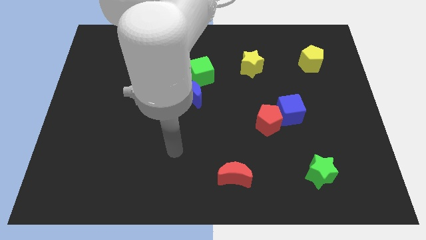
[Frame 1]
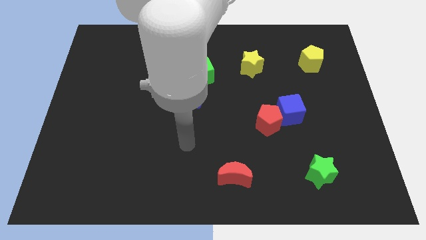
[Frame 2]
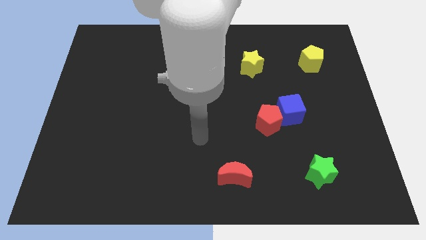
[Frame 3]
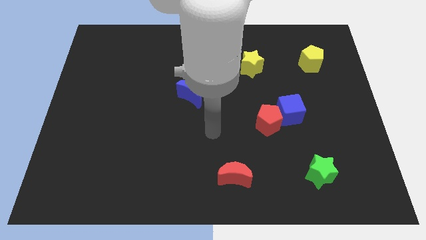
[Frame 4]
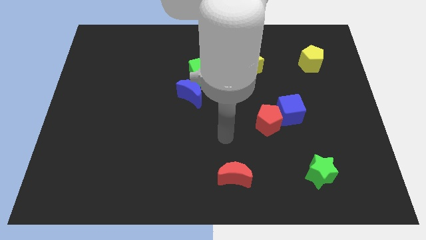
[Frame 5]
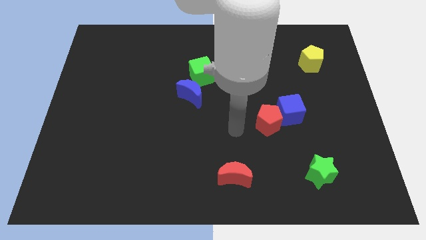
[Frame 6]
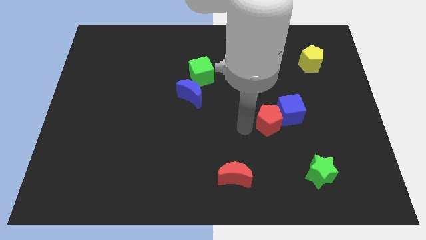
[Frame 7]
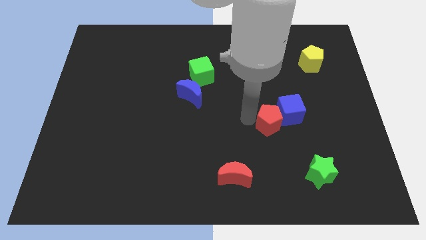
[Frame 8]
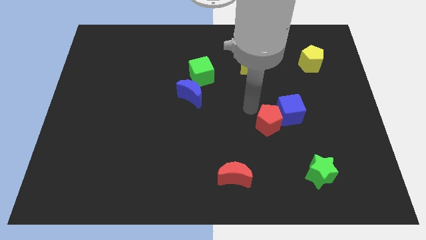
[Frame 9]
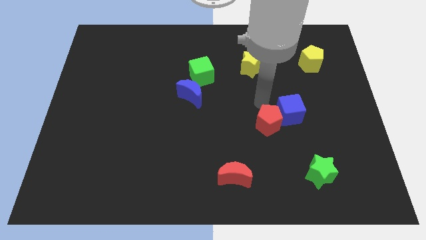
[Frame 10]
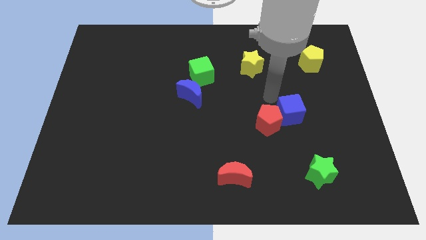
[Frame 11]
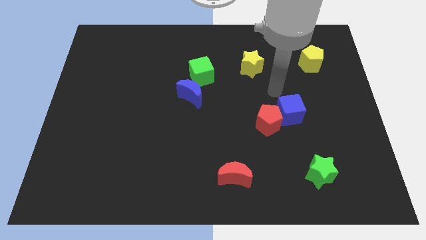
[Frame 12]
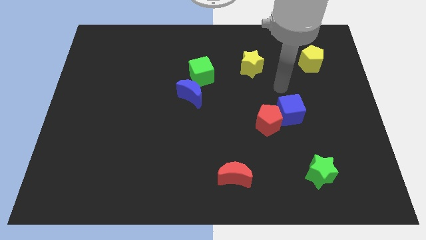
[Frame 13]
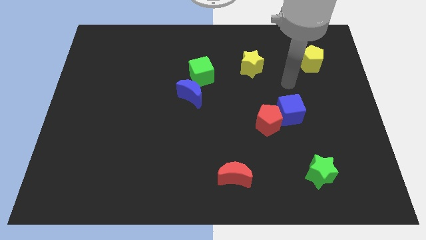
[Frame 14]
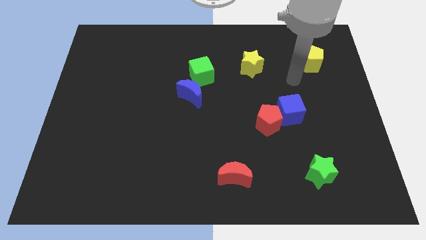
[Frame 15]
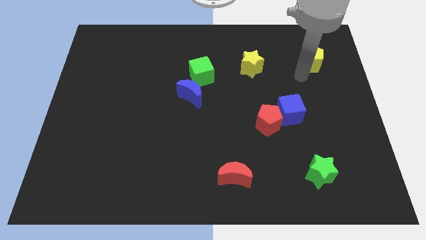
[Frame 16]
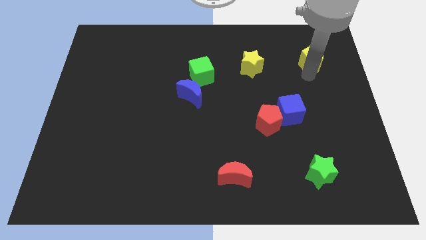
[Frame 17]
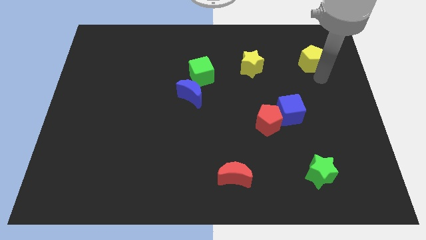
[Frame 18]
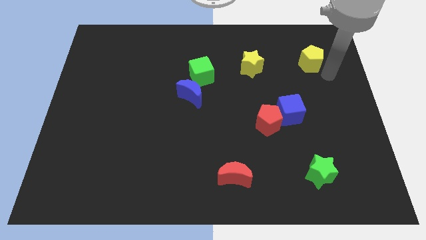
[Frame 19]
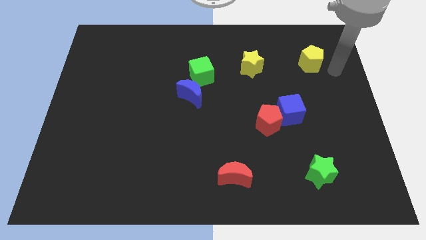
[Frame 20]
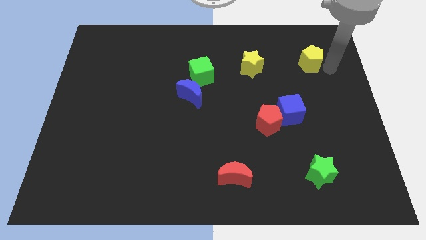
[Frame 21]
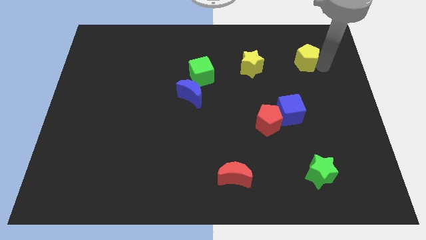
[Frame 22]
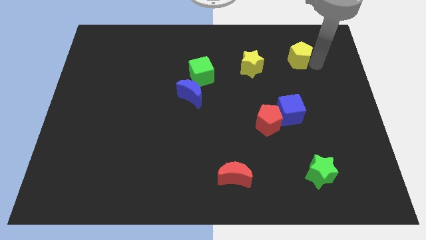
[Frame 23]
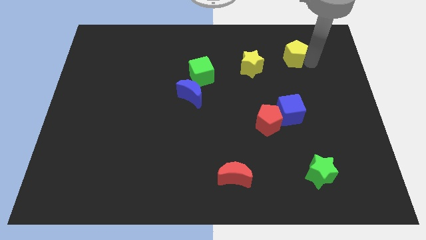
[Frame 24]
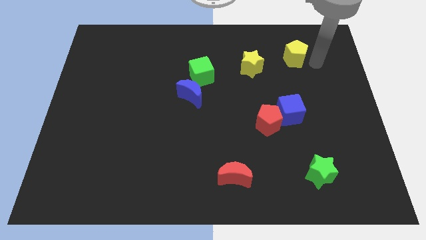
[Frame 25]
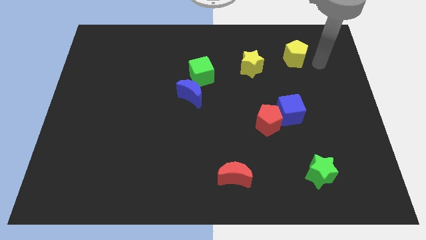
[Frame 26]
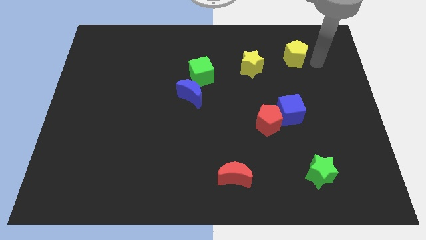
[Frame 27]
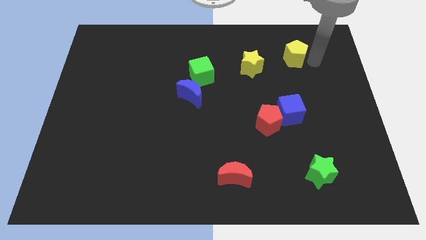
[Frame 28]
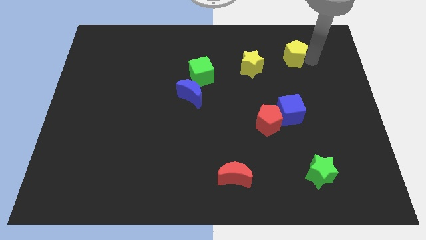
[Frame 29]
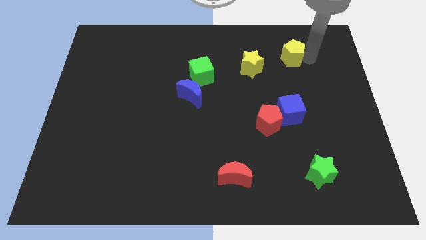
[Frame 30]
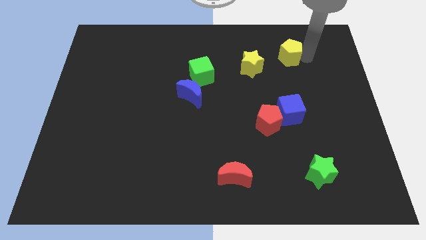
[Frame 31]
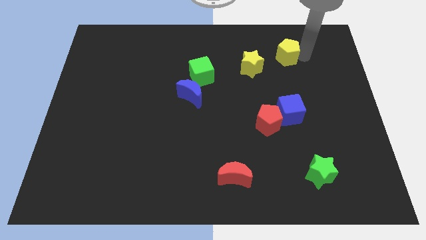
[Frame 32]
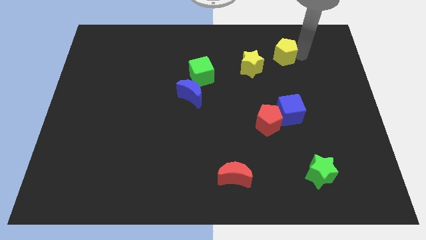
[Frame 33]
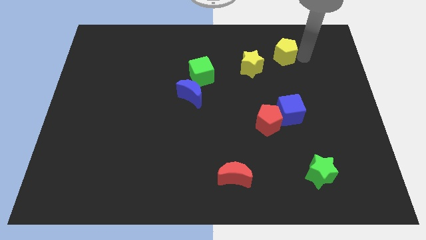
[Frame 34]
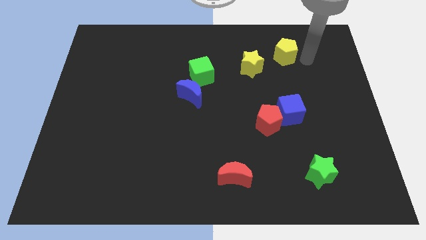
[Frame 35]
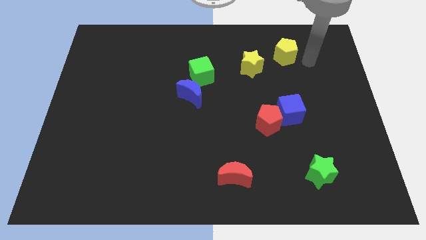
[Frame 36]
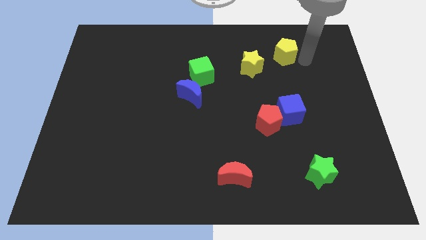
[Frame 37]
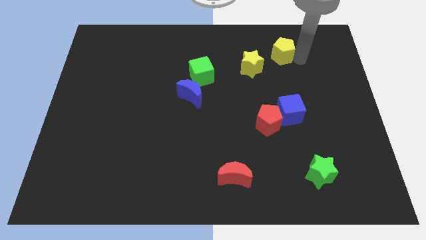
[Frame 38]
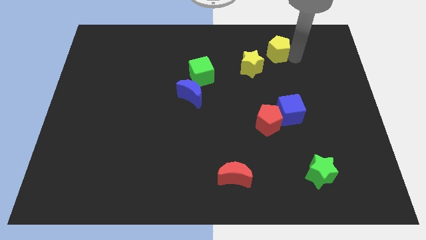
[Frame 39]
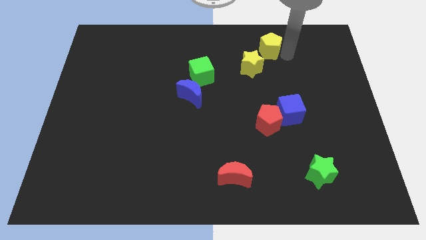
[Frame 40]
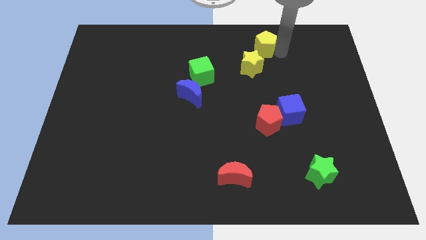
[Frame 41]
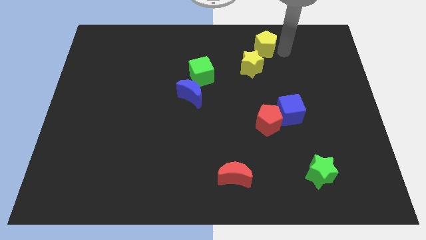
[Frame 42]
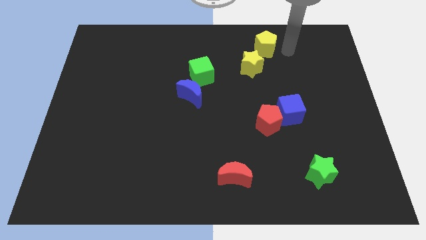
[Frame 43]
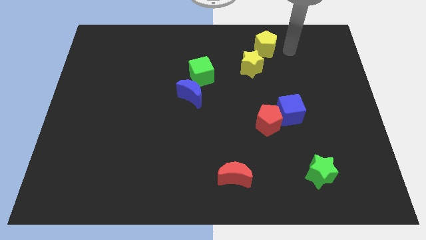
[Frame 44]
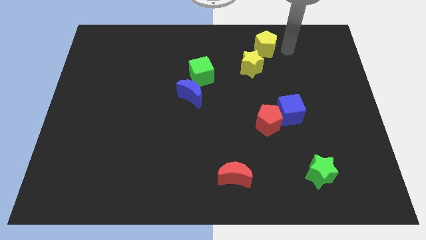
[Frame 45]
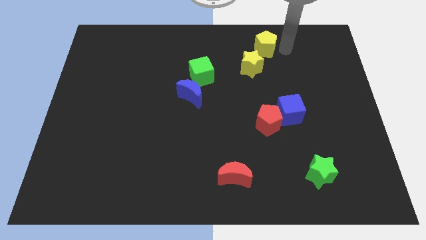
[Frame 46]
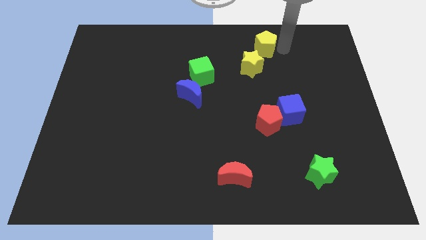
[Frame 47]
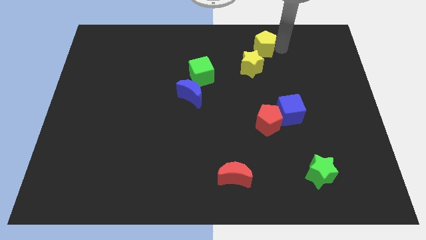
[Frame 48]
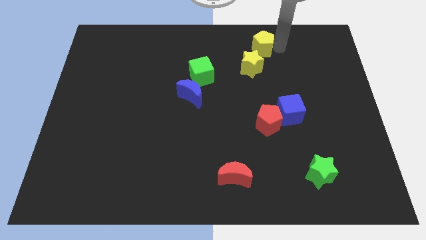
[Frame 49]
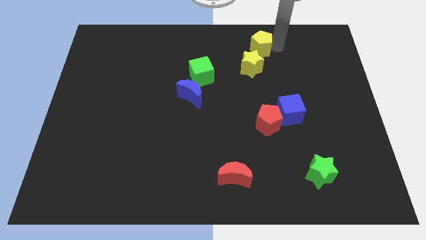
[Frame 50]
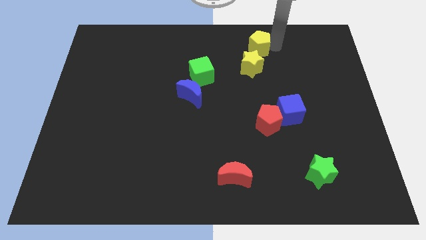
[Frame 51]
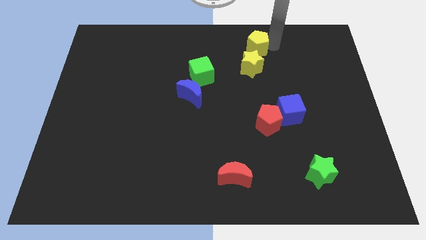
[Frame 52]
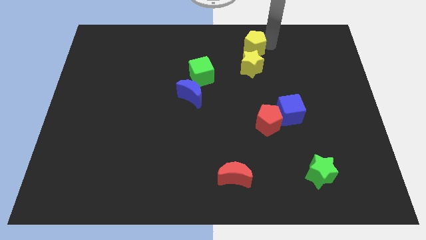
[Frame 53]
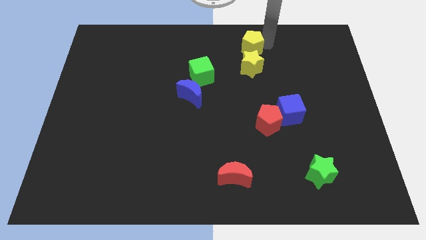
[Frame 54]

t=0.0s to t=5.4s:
push the yellow pentagon to the towards your base

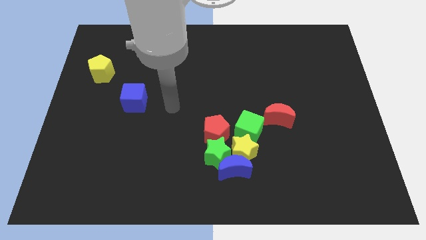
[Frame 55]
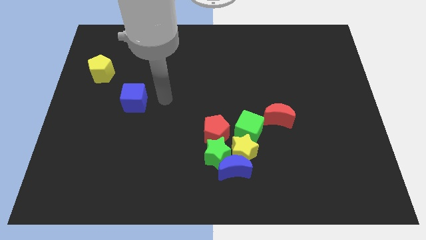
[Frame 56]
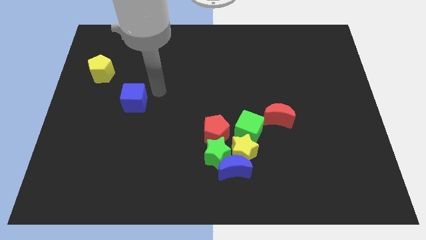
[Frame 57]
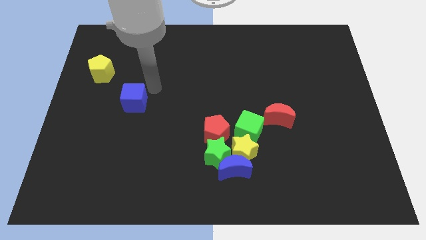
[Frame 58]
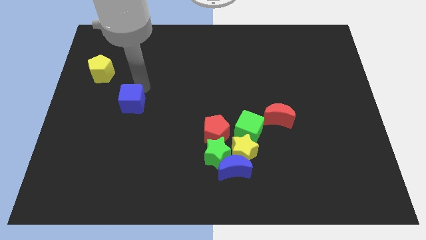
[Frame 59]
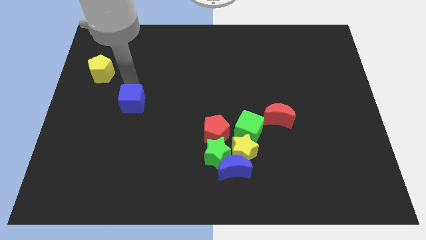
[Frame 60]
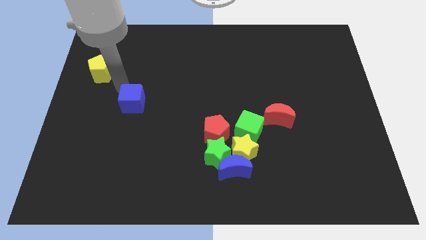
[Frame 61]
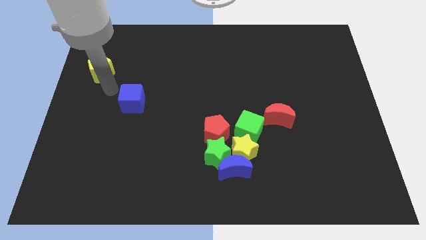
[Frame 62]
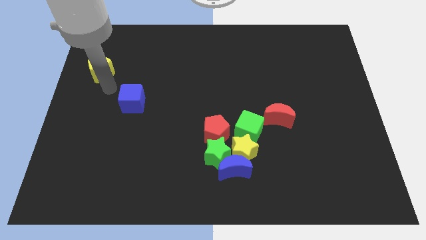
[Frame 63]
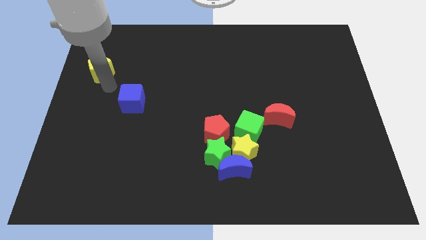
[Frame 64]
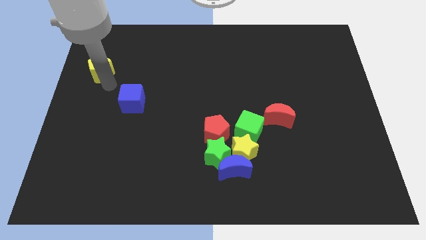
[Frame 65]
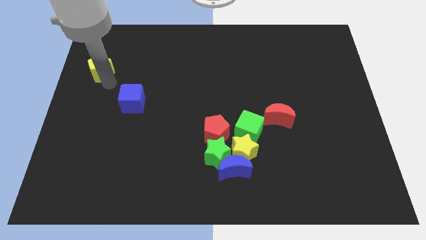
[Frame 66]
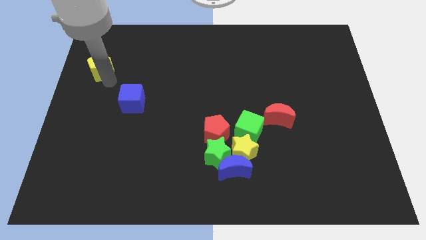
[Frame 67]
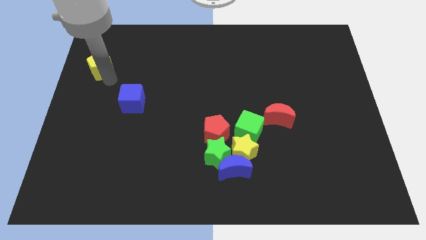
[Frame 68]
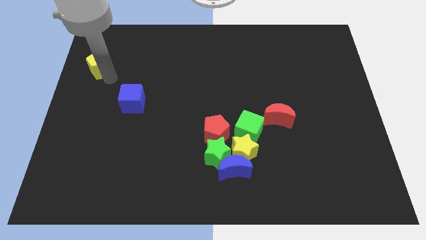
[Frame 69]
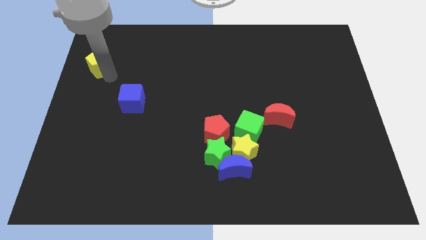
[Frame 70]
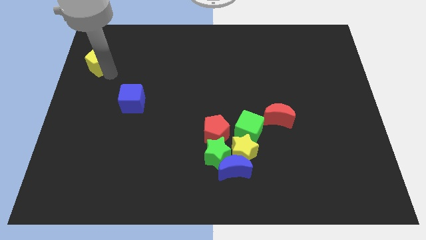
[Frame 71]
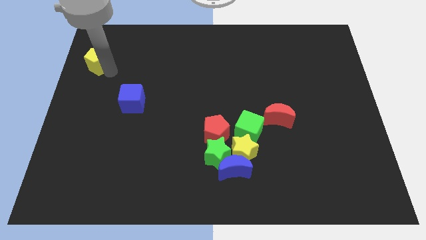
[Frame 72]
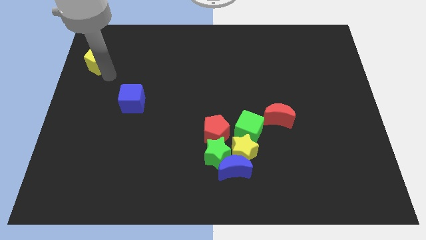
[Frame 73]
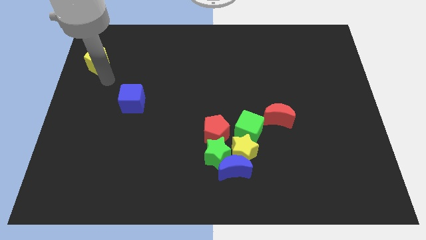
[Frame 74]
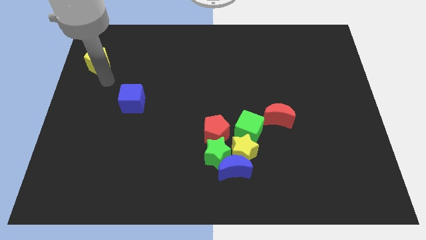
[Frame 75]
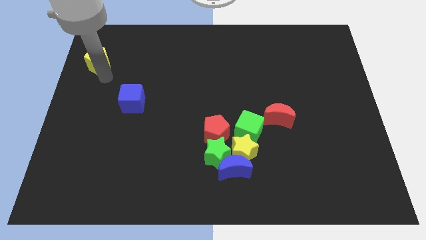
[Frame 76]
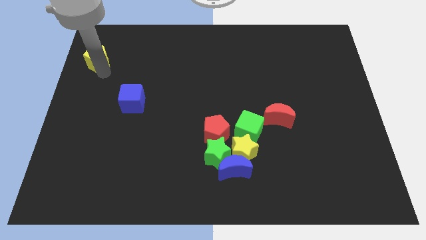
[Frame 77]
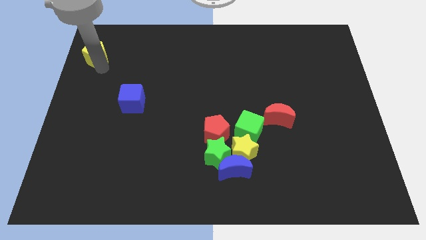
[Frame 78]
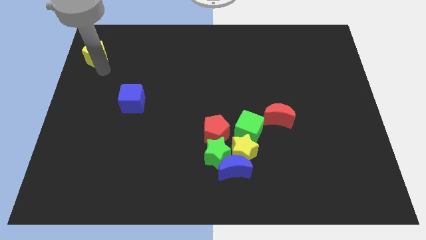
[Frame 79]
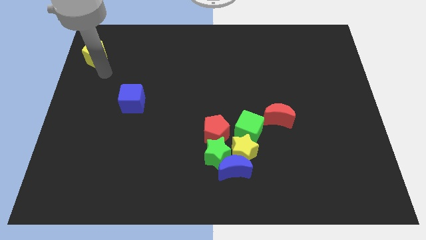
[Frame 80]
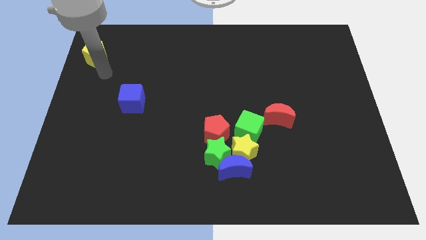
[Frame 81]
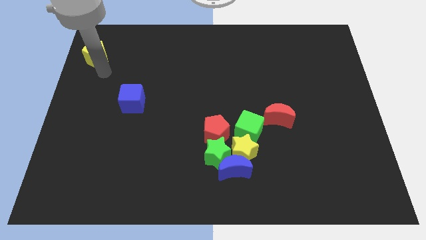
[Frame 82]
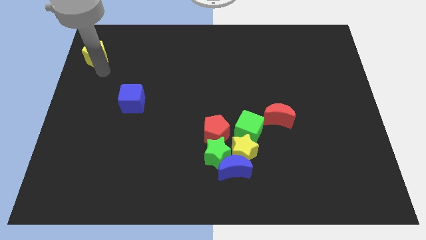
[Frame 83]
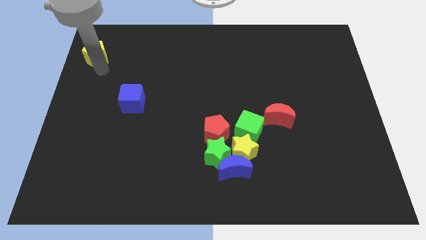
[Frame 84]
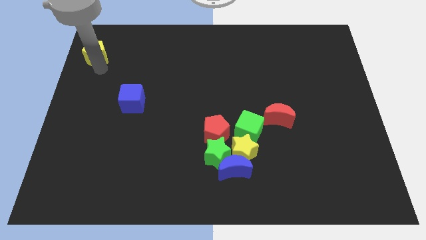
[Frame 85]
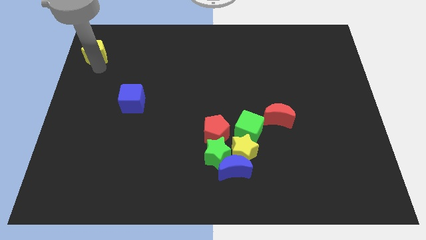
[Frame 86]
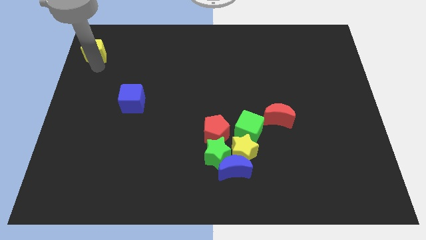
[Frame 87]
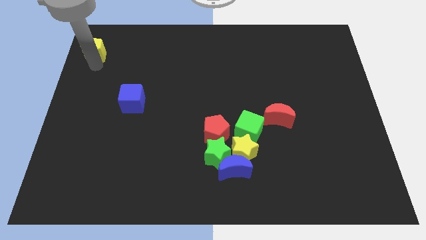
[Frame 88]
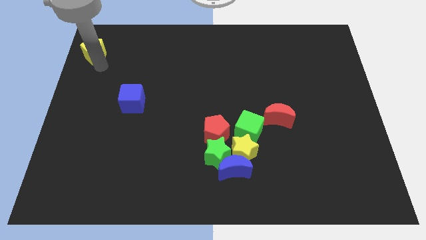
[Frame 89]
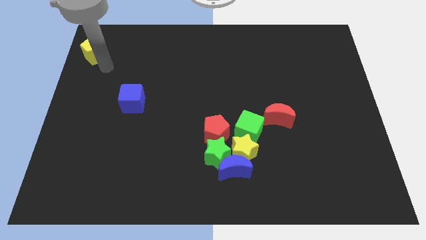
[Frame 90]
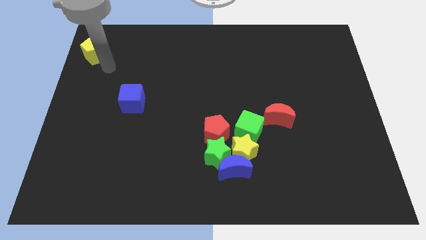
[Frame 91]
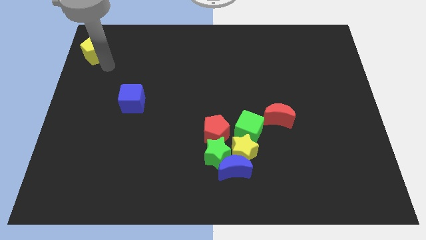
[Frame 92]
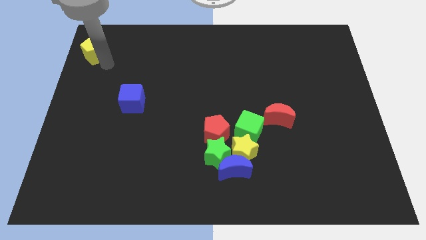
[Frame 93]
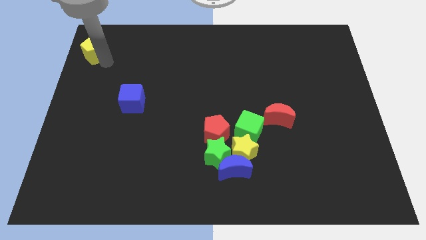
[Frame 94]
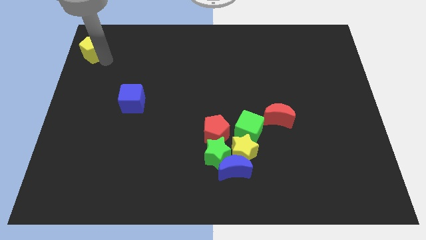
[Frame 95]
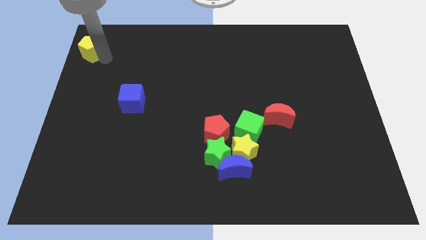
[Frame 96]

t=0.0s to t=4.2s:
move the yellow pentagon to the top left
